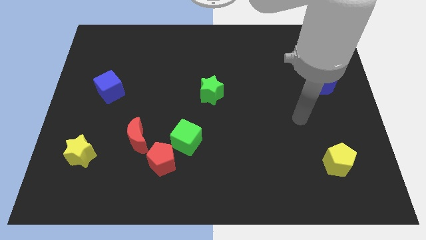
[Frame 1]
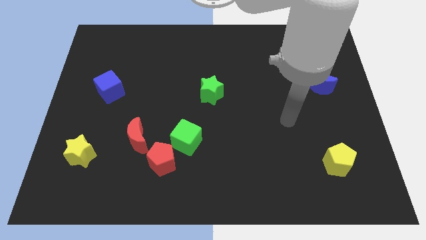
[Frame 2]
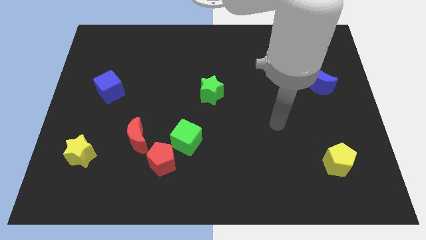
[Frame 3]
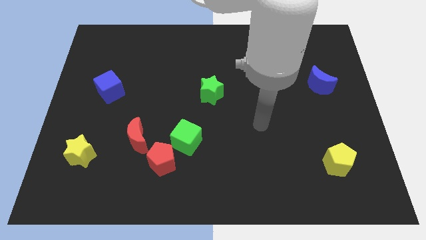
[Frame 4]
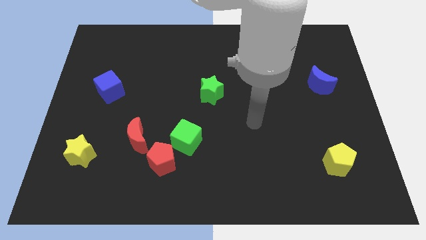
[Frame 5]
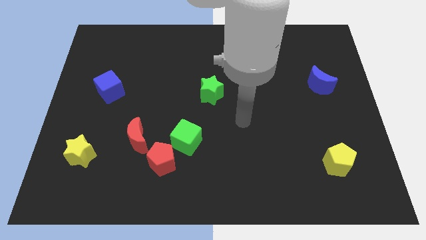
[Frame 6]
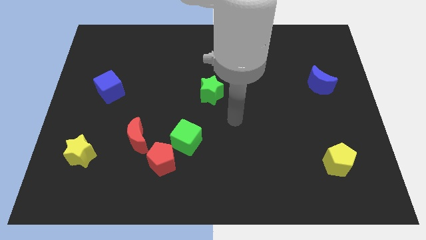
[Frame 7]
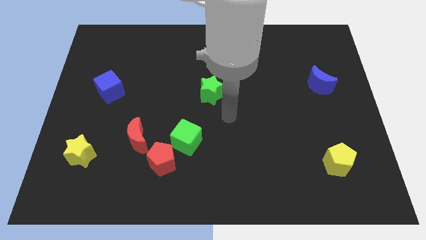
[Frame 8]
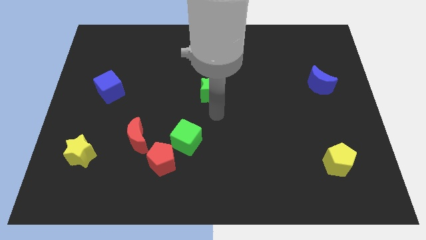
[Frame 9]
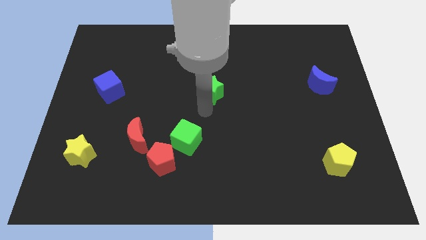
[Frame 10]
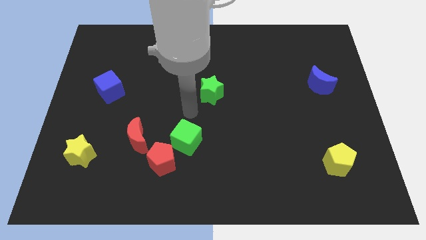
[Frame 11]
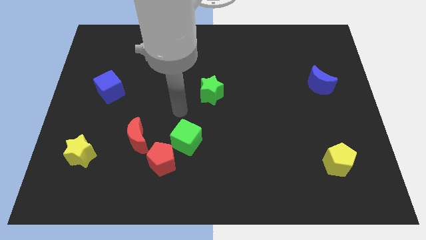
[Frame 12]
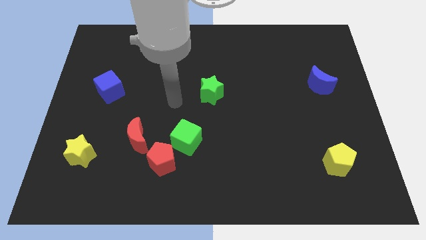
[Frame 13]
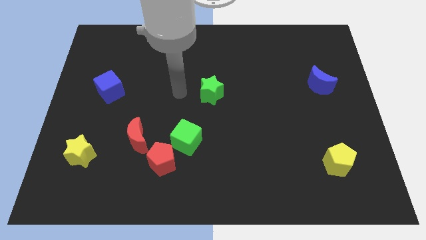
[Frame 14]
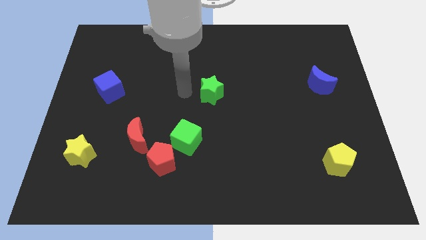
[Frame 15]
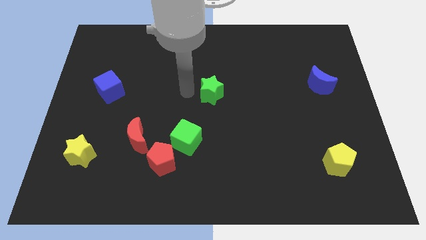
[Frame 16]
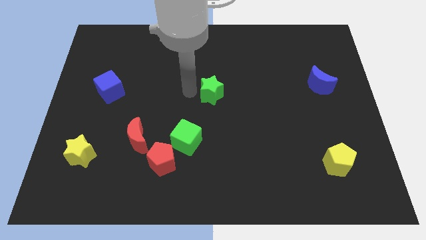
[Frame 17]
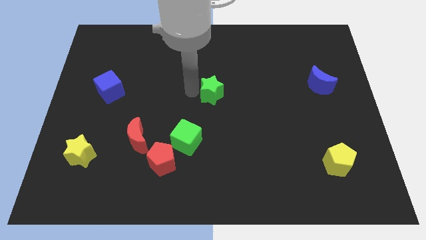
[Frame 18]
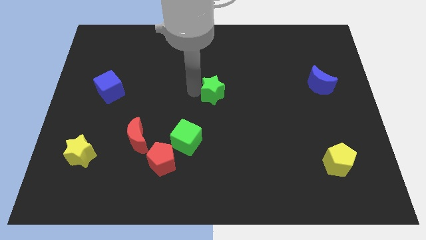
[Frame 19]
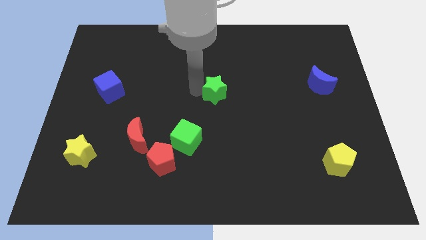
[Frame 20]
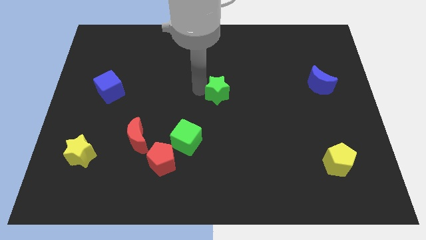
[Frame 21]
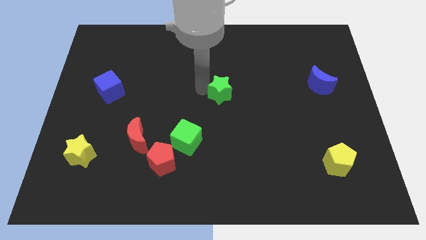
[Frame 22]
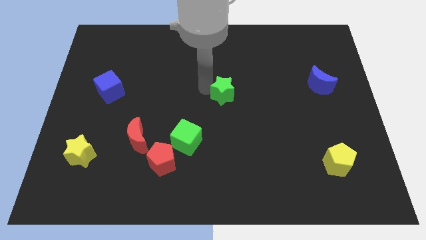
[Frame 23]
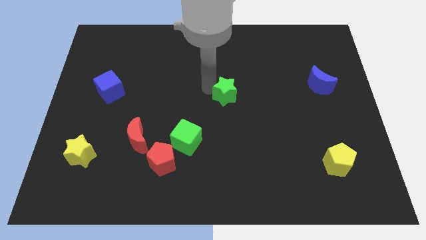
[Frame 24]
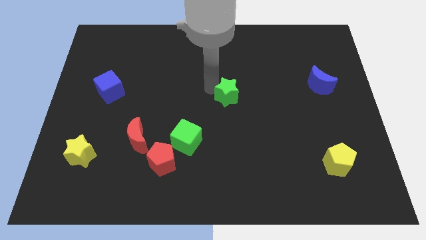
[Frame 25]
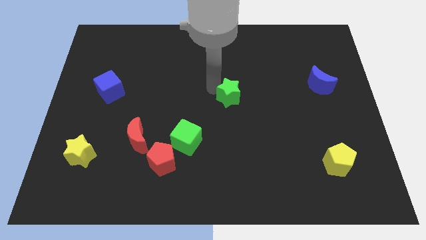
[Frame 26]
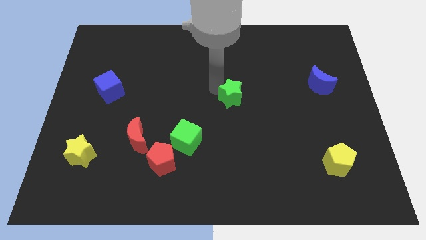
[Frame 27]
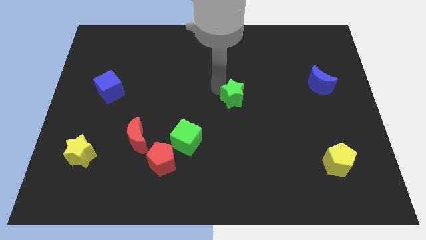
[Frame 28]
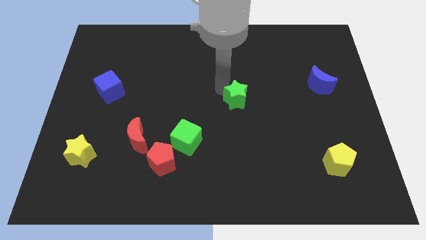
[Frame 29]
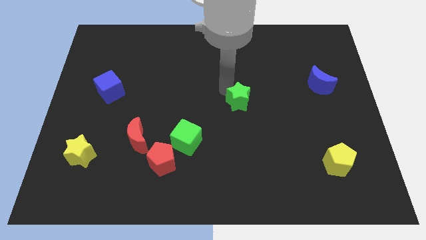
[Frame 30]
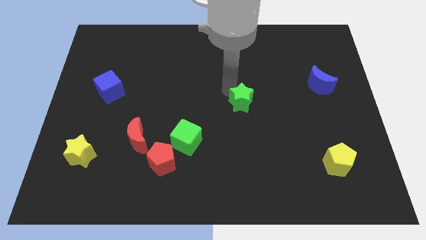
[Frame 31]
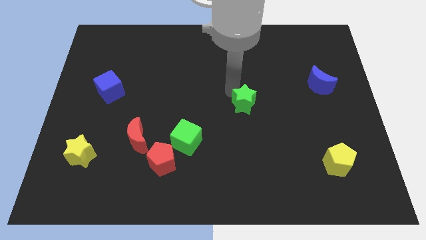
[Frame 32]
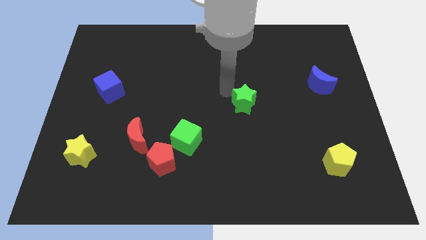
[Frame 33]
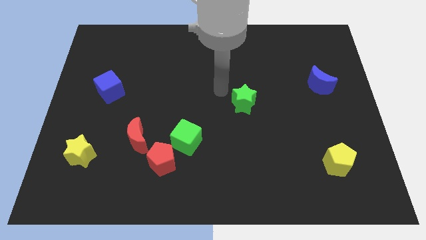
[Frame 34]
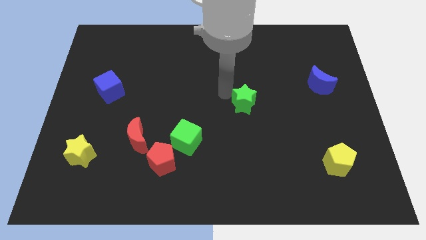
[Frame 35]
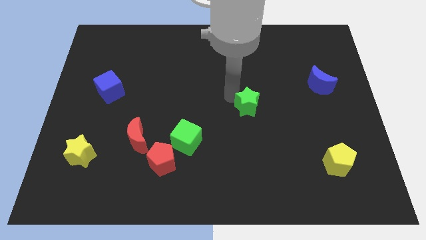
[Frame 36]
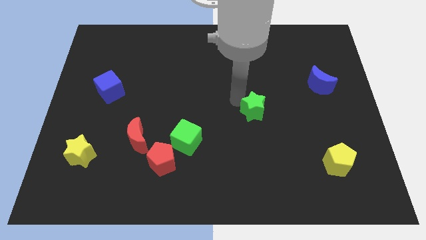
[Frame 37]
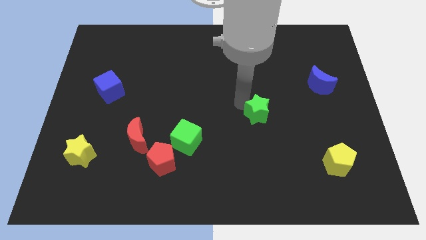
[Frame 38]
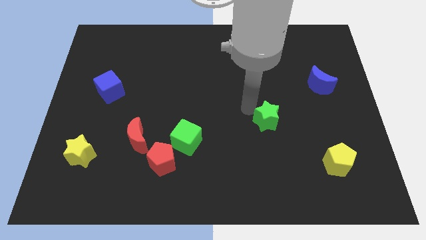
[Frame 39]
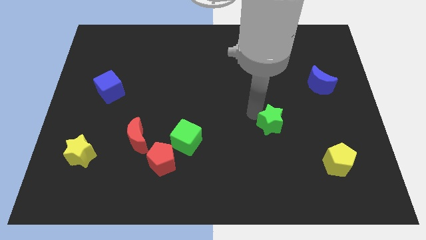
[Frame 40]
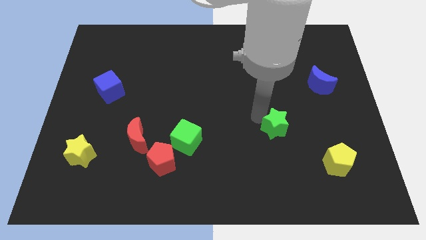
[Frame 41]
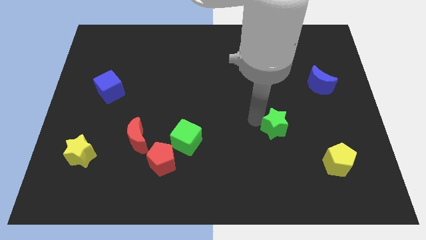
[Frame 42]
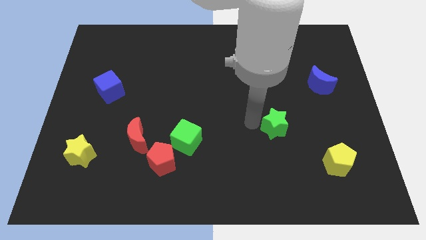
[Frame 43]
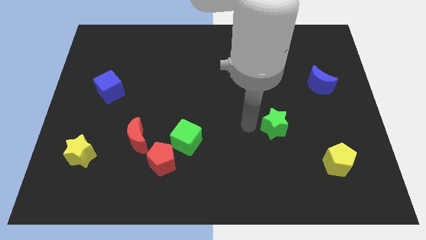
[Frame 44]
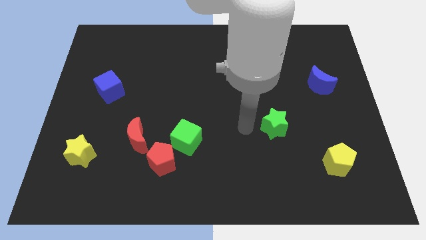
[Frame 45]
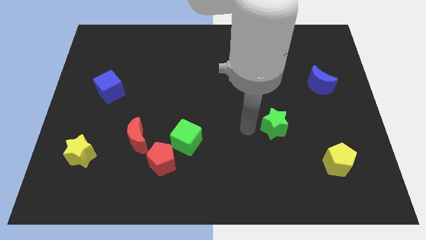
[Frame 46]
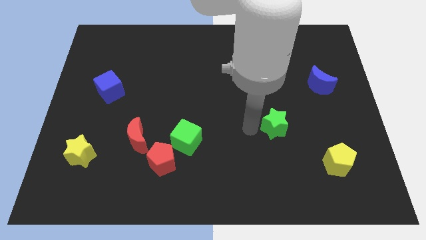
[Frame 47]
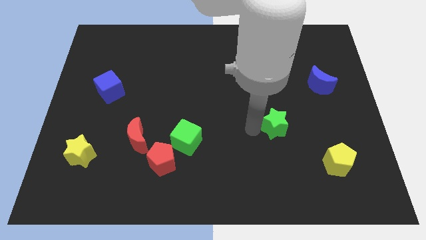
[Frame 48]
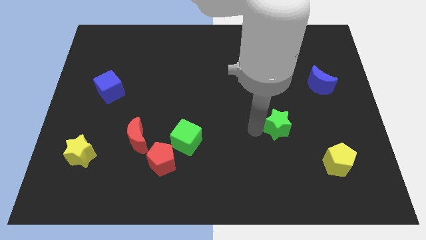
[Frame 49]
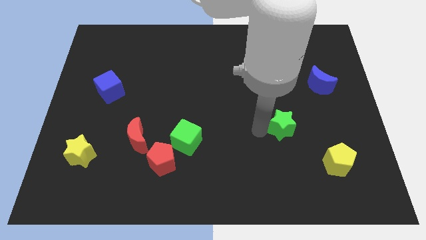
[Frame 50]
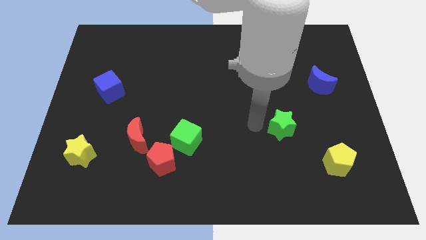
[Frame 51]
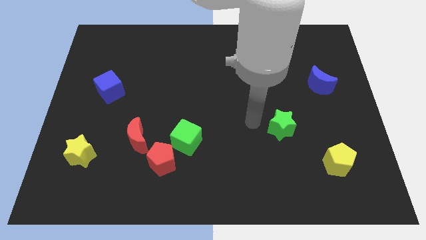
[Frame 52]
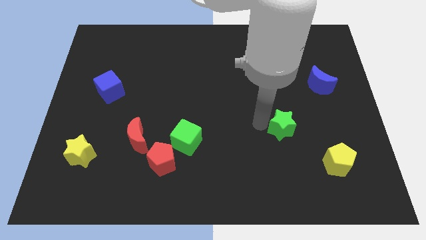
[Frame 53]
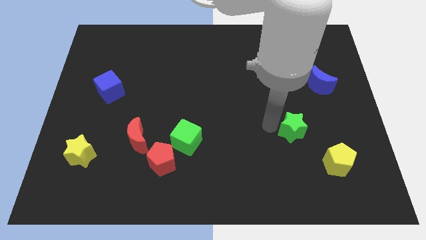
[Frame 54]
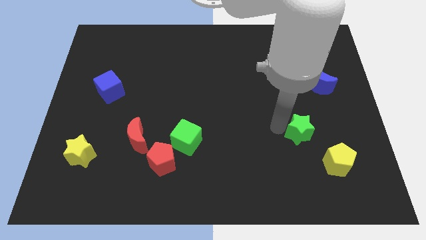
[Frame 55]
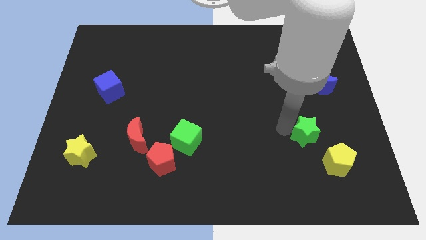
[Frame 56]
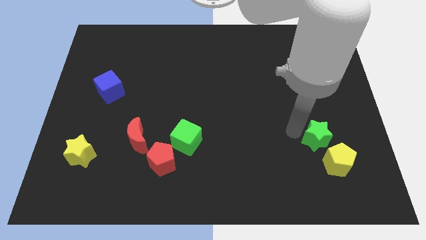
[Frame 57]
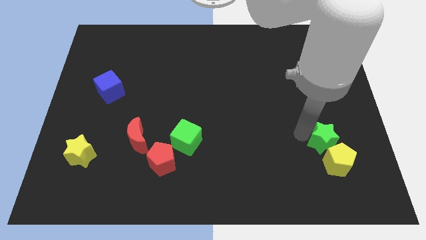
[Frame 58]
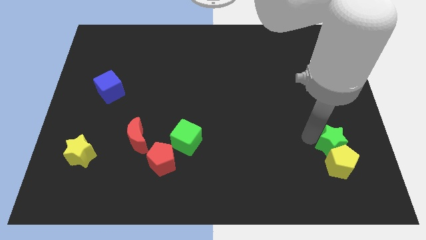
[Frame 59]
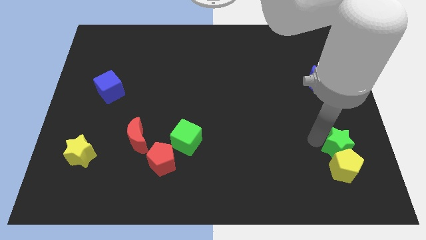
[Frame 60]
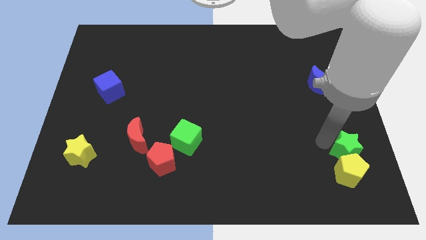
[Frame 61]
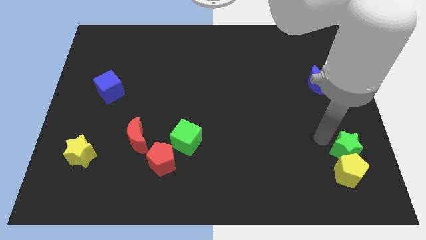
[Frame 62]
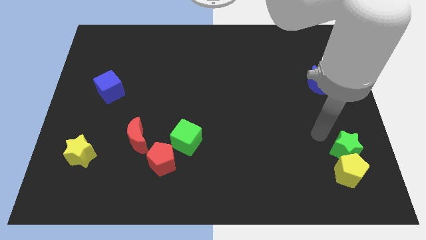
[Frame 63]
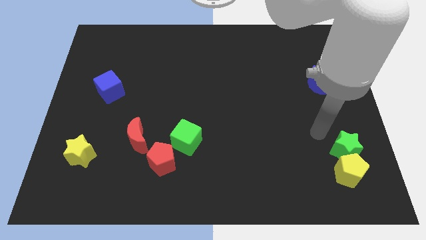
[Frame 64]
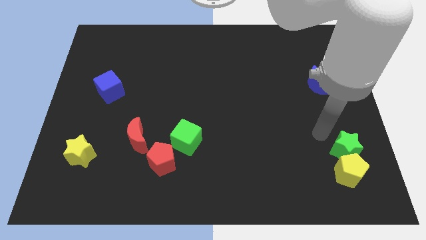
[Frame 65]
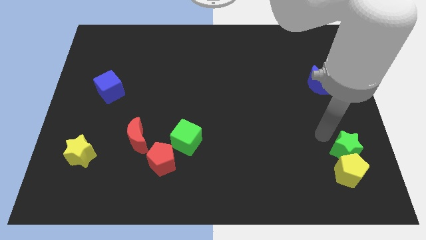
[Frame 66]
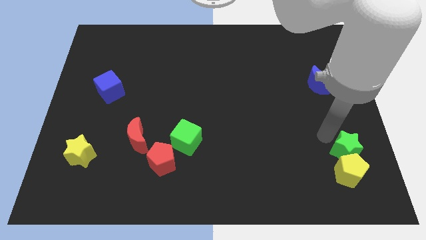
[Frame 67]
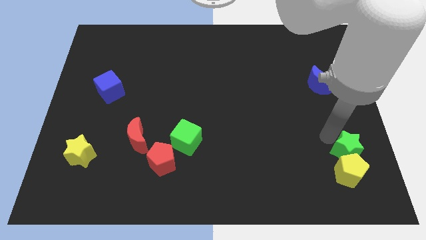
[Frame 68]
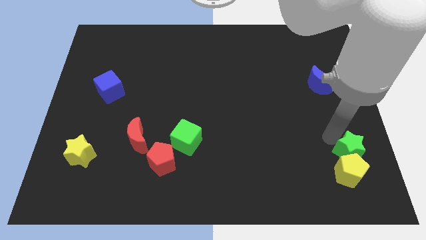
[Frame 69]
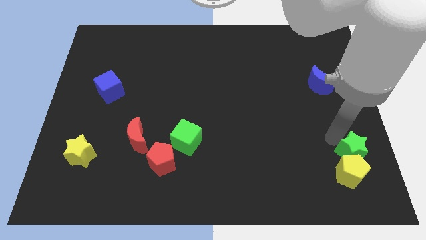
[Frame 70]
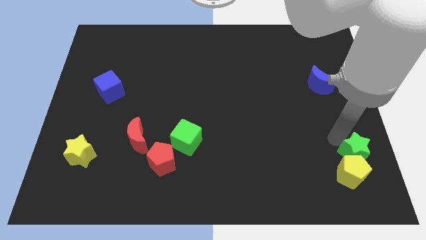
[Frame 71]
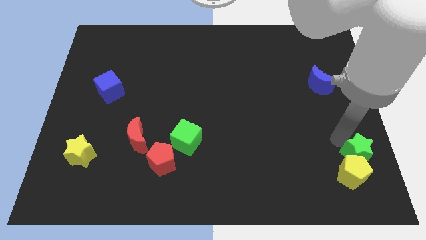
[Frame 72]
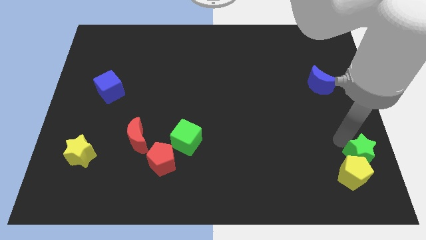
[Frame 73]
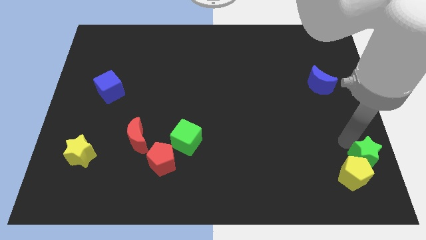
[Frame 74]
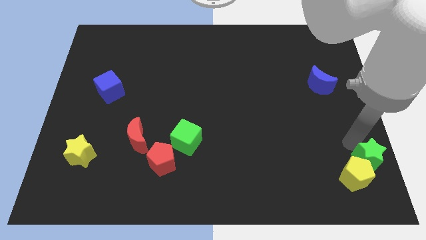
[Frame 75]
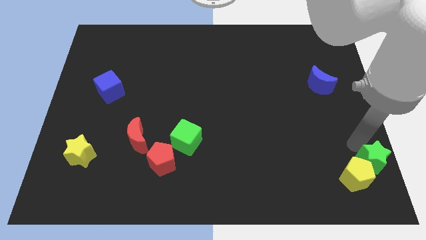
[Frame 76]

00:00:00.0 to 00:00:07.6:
push the green star to the bottom right corner
